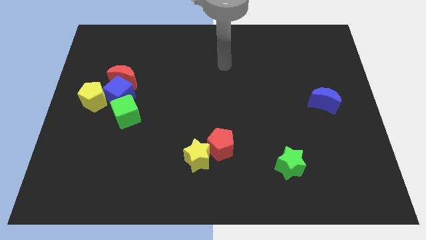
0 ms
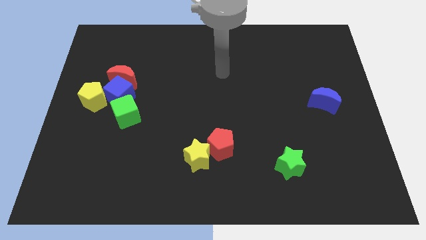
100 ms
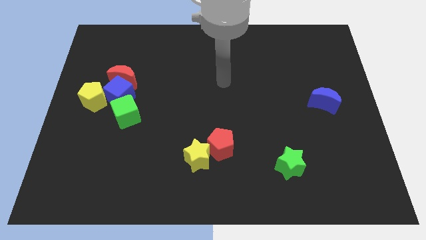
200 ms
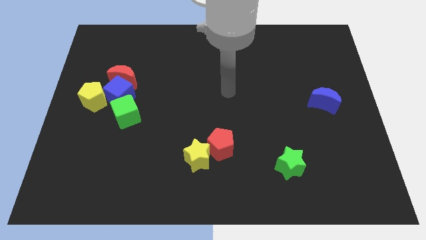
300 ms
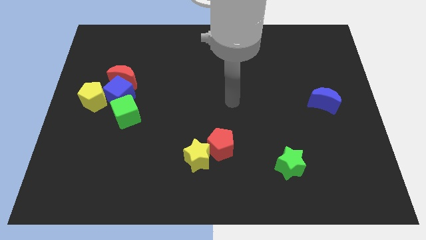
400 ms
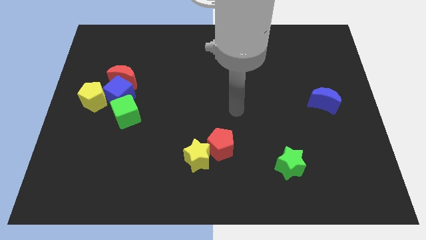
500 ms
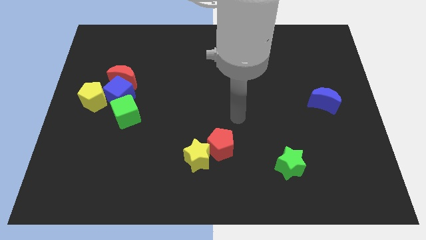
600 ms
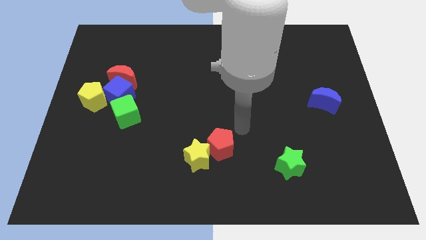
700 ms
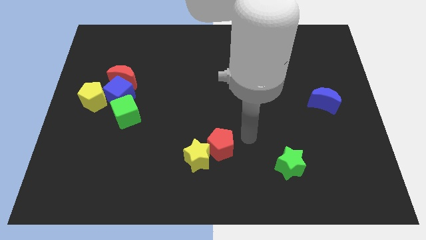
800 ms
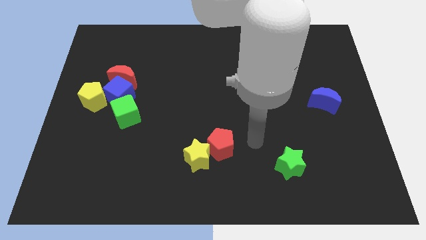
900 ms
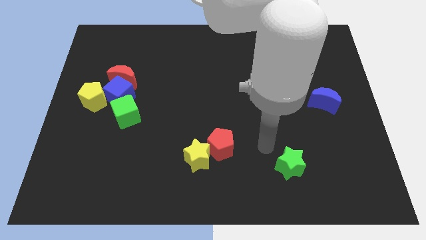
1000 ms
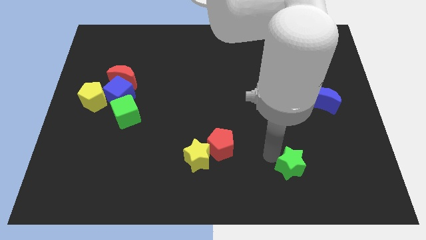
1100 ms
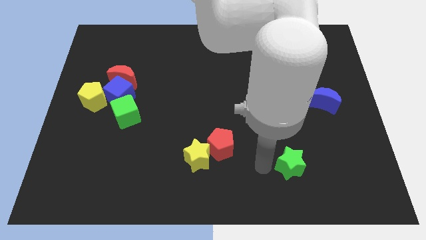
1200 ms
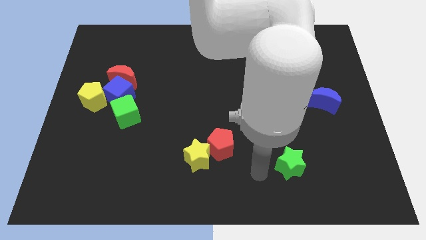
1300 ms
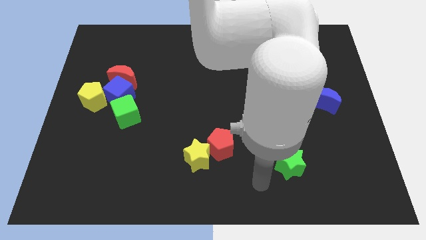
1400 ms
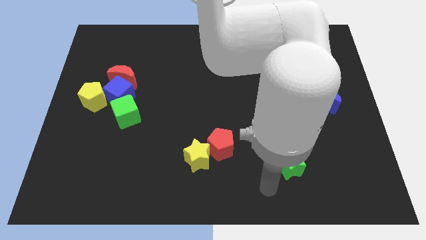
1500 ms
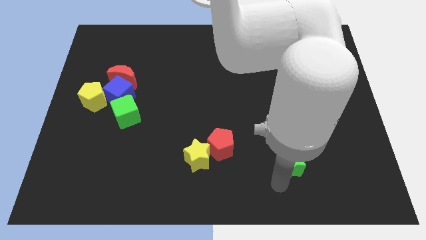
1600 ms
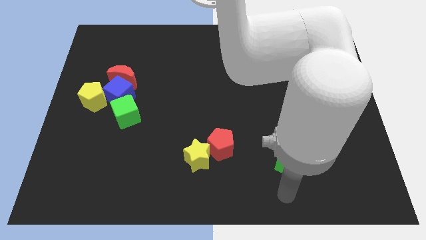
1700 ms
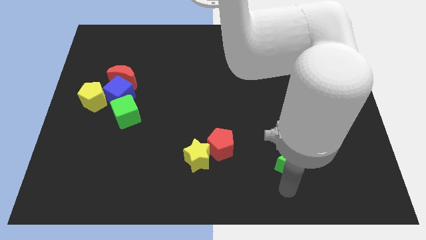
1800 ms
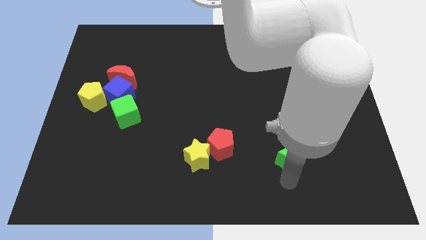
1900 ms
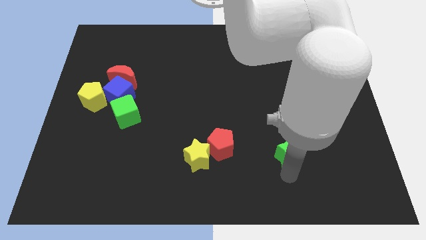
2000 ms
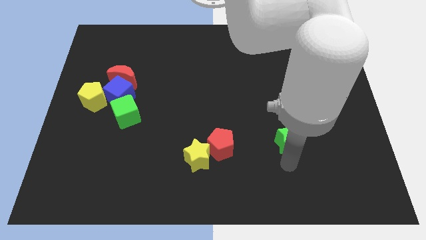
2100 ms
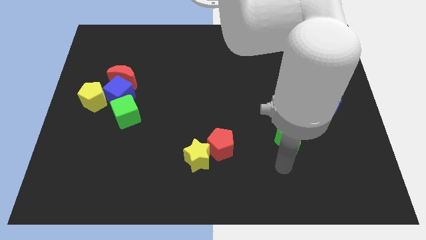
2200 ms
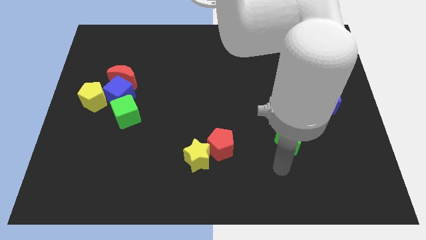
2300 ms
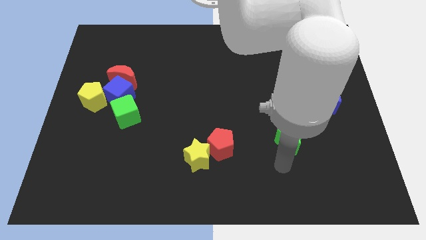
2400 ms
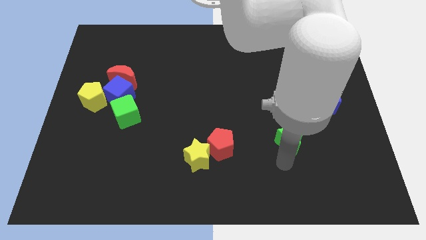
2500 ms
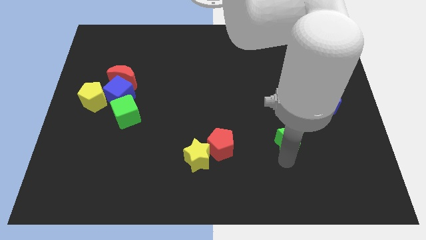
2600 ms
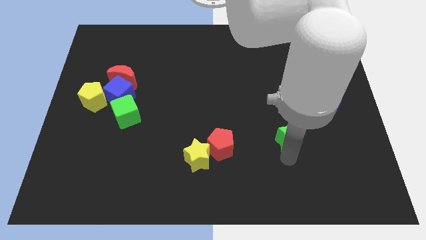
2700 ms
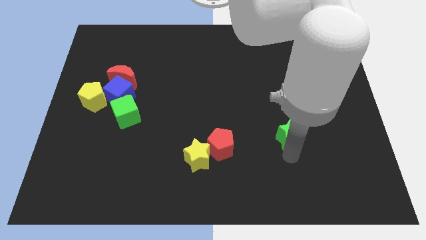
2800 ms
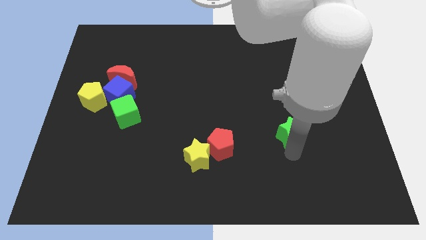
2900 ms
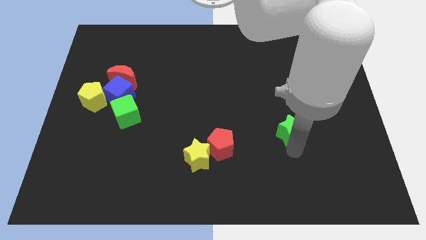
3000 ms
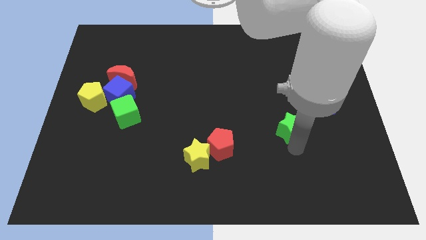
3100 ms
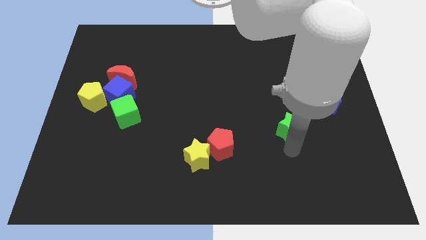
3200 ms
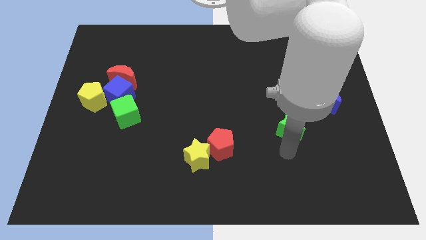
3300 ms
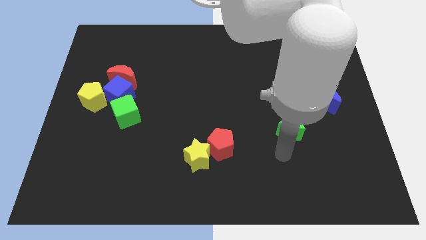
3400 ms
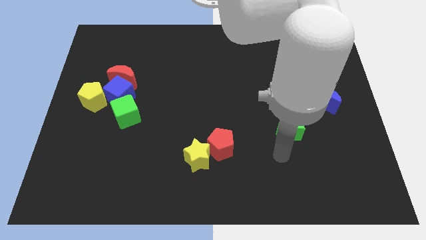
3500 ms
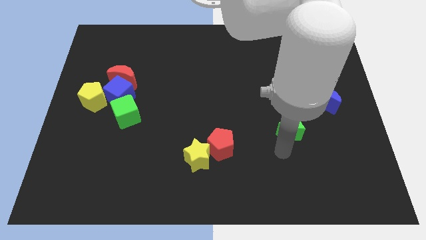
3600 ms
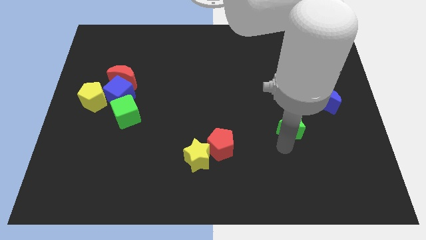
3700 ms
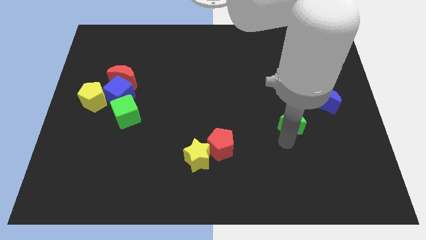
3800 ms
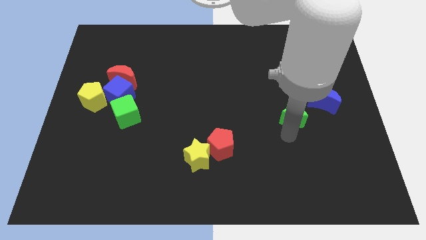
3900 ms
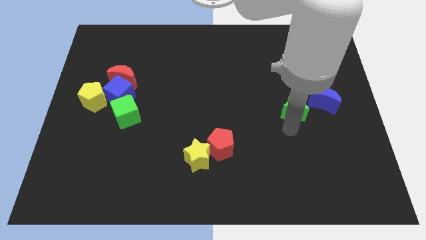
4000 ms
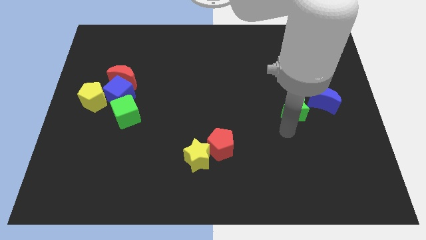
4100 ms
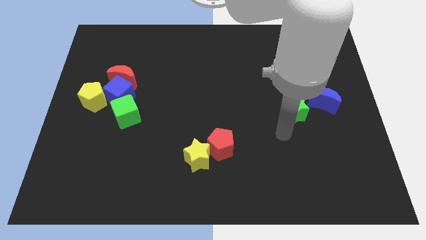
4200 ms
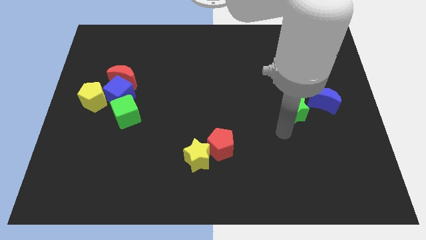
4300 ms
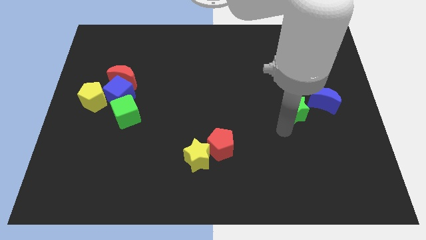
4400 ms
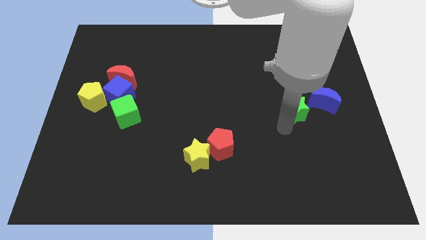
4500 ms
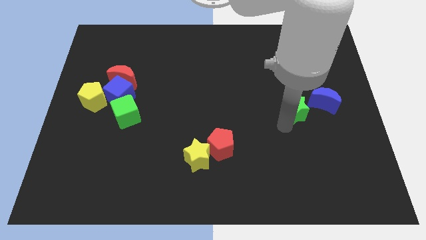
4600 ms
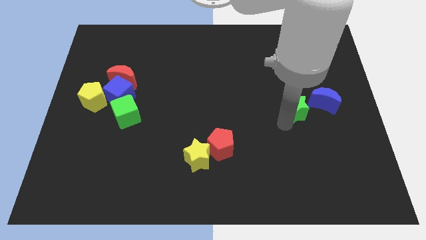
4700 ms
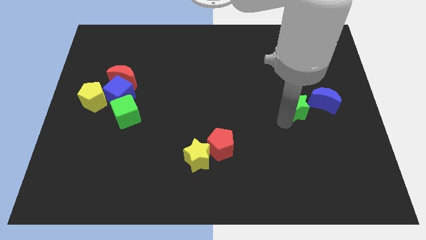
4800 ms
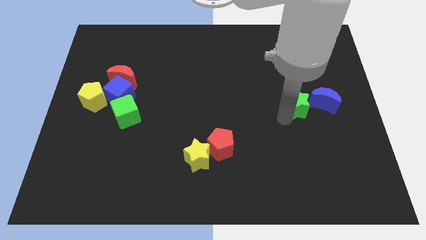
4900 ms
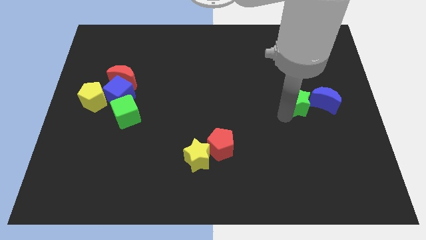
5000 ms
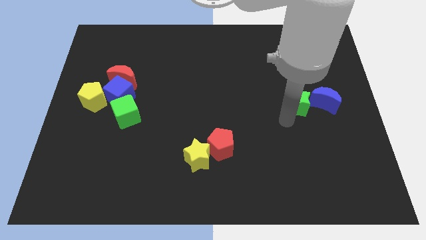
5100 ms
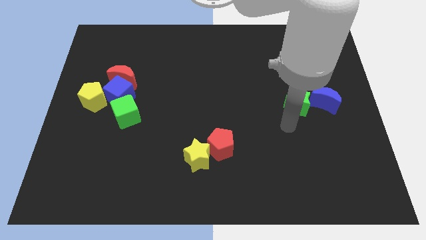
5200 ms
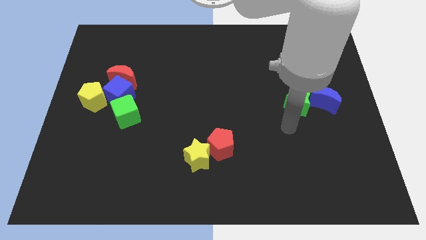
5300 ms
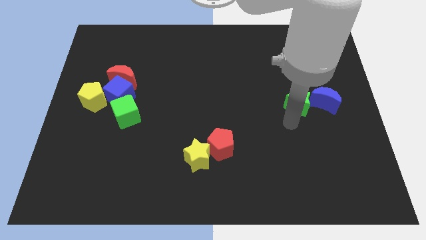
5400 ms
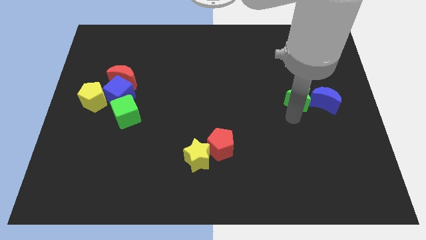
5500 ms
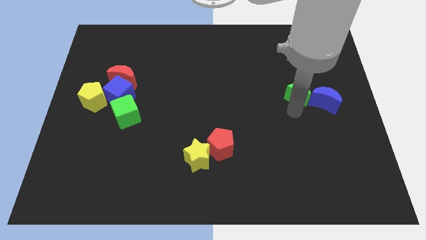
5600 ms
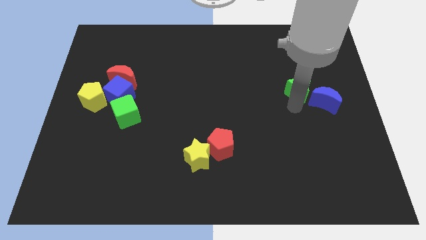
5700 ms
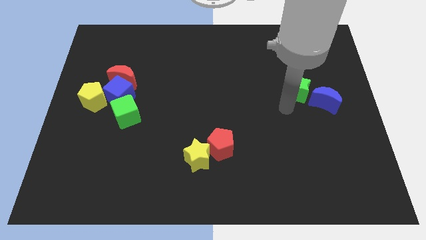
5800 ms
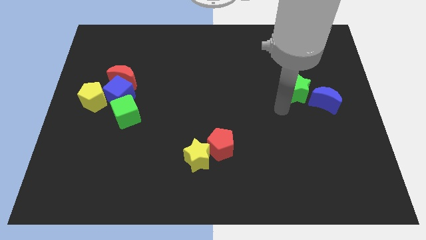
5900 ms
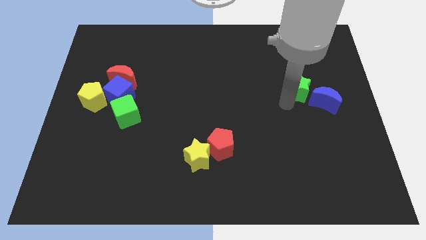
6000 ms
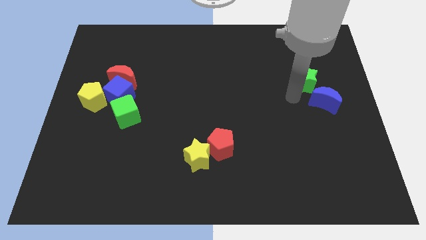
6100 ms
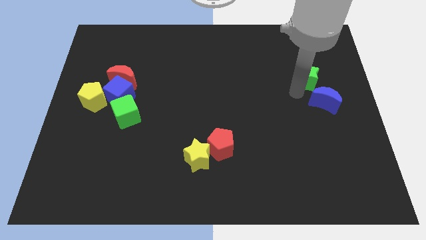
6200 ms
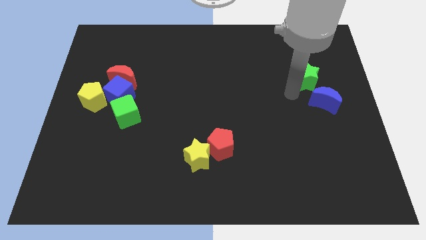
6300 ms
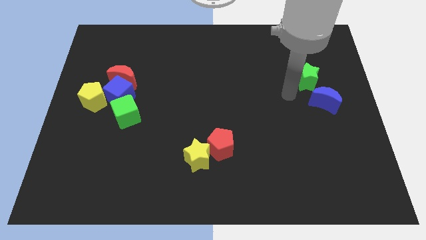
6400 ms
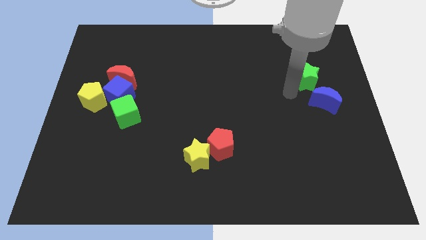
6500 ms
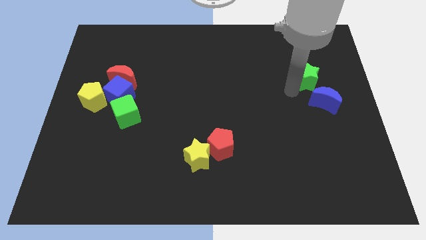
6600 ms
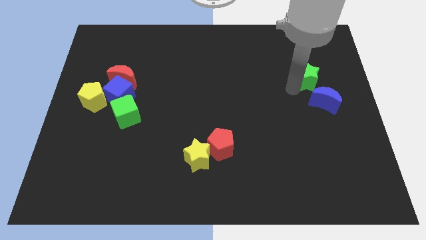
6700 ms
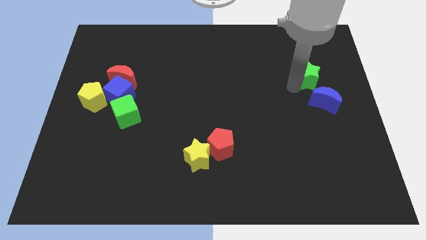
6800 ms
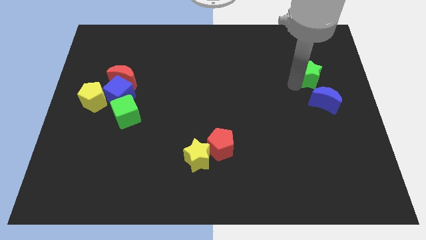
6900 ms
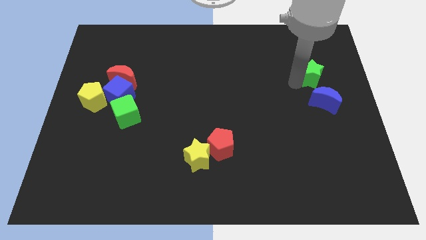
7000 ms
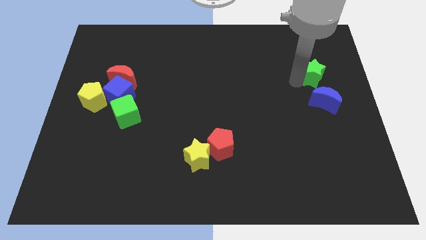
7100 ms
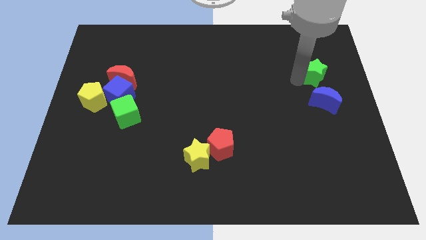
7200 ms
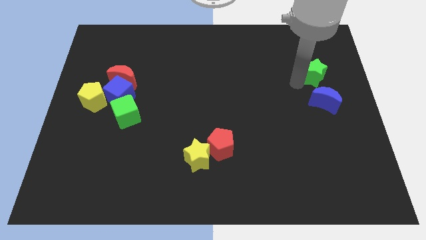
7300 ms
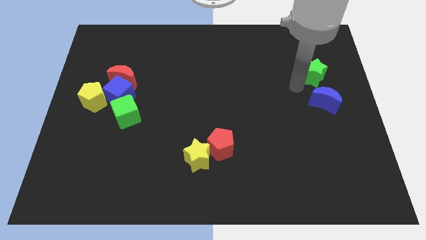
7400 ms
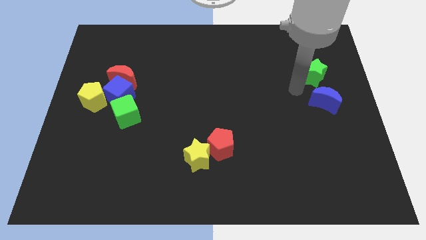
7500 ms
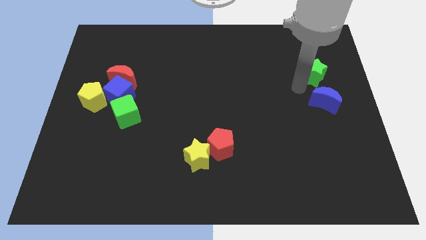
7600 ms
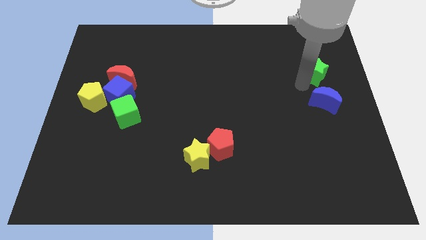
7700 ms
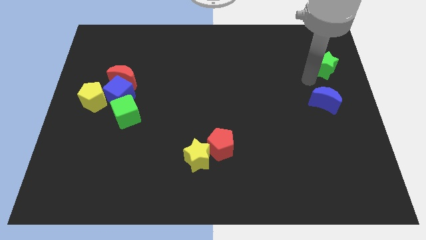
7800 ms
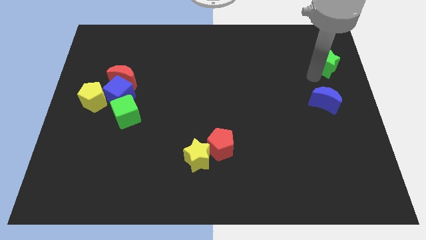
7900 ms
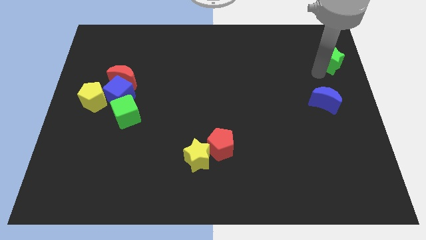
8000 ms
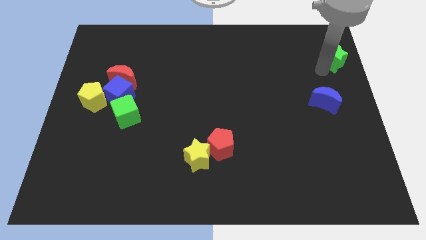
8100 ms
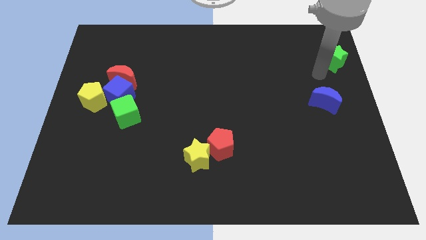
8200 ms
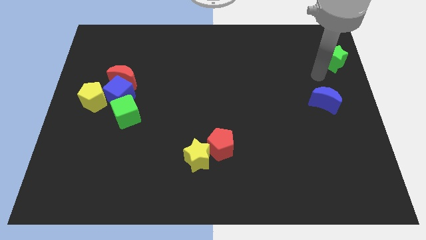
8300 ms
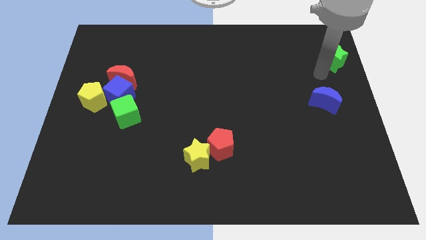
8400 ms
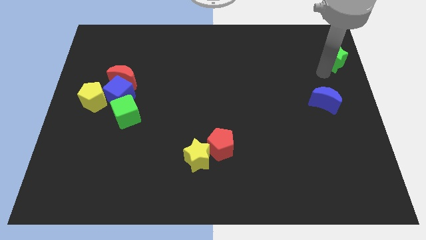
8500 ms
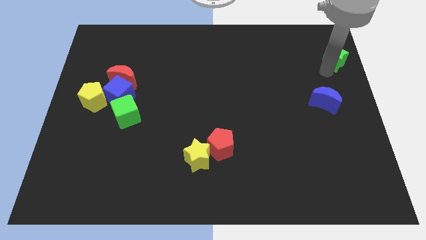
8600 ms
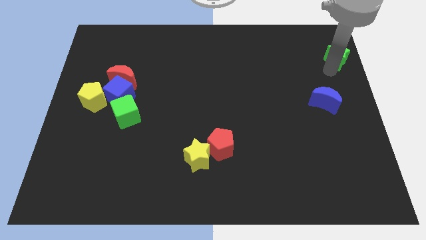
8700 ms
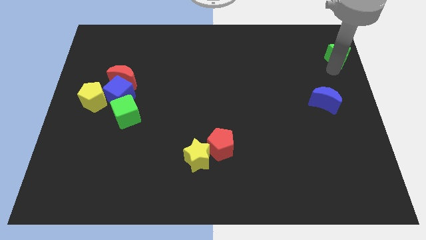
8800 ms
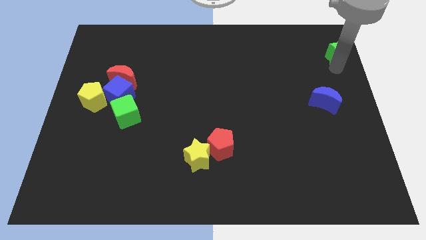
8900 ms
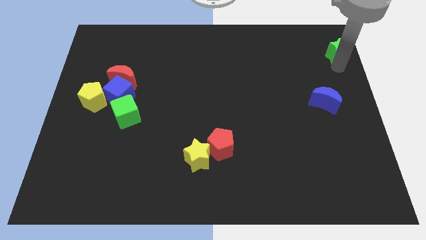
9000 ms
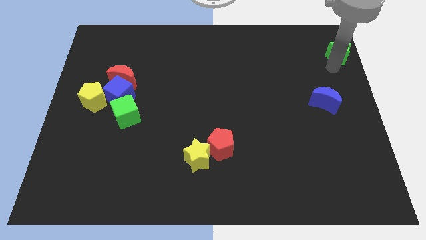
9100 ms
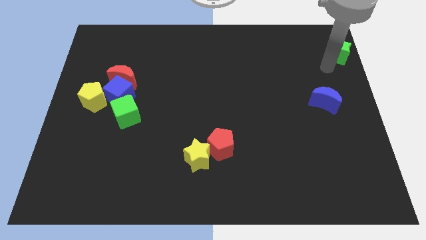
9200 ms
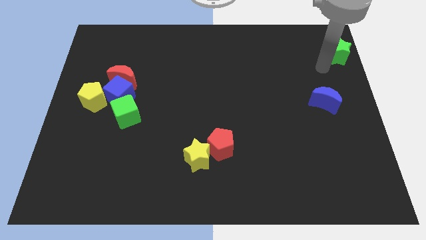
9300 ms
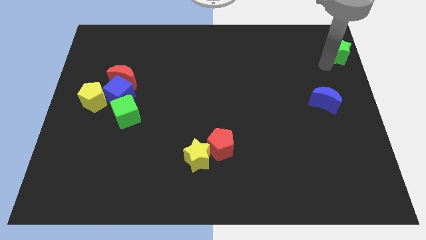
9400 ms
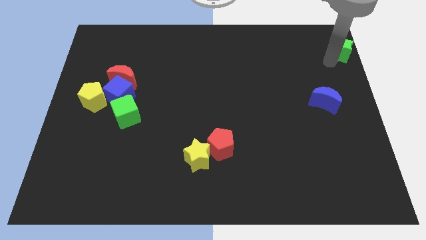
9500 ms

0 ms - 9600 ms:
move the green star to the top right of the board
